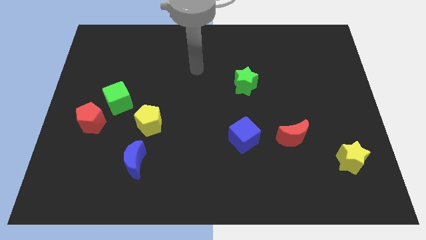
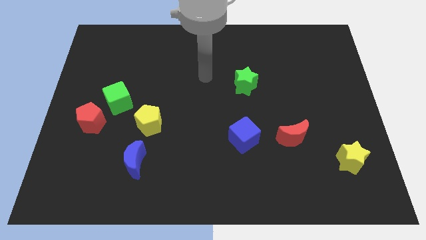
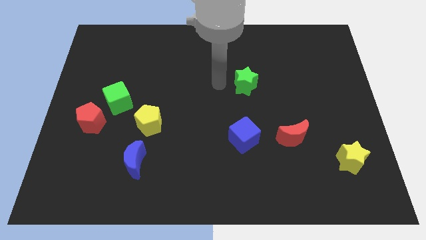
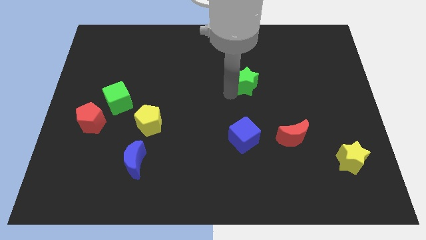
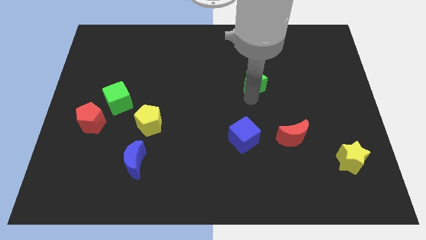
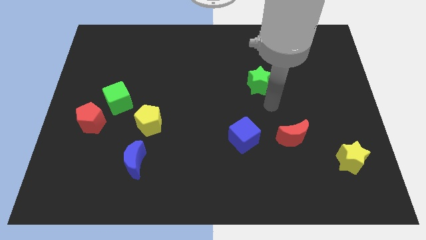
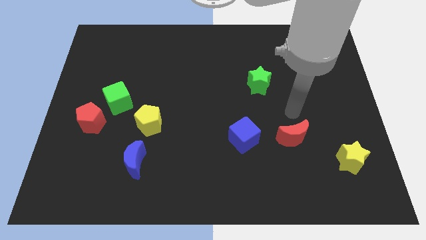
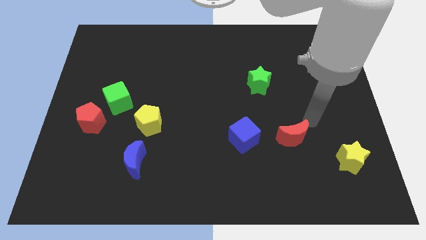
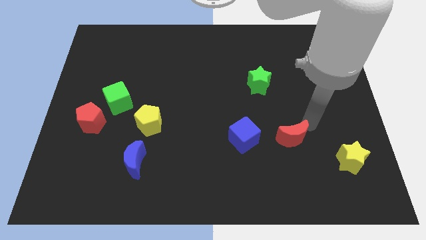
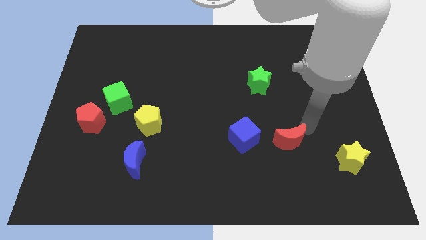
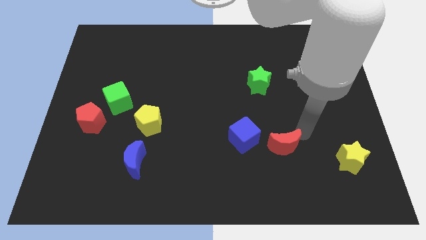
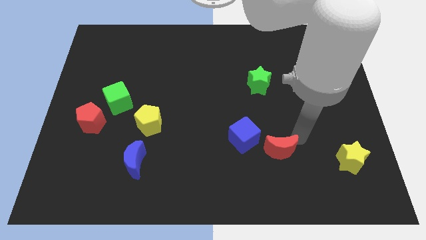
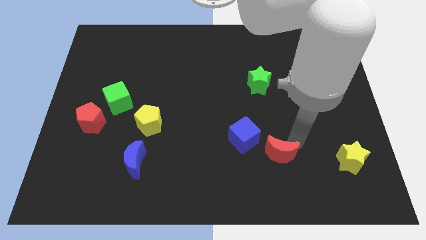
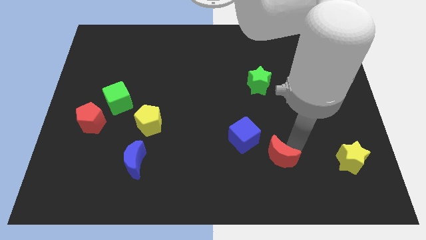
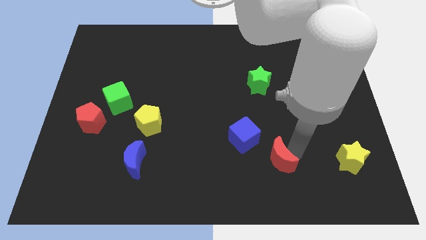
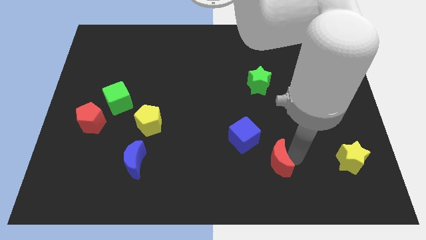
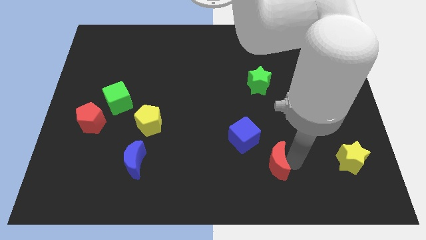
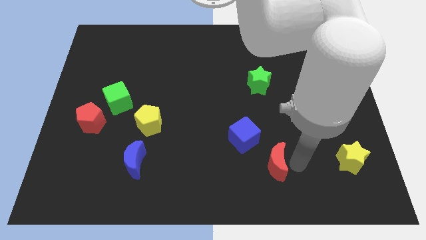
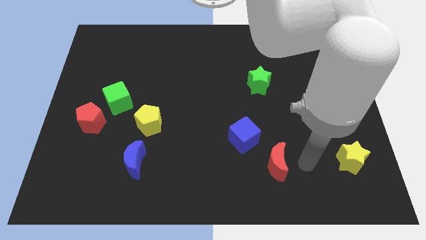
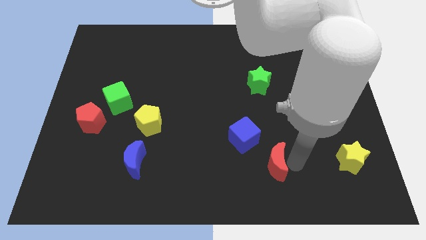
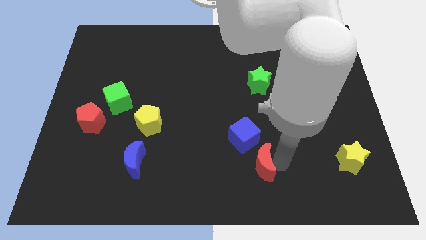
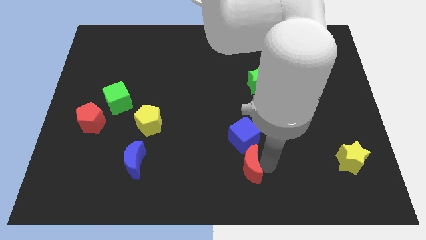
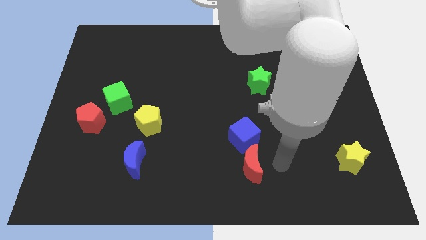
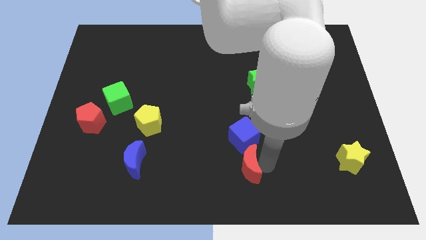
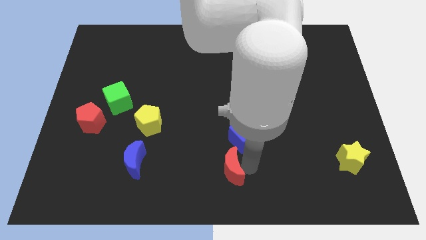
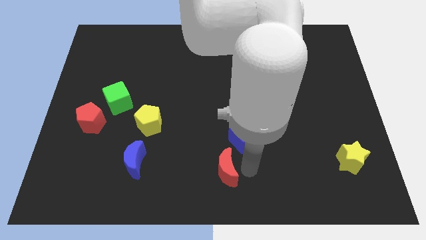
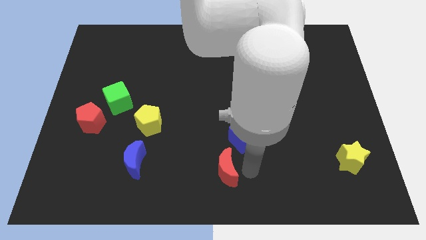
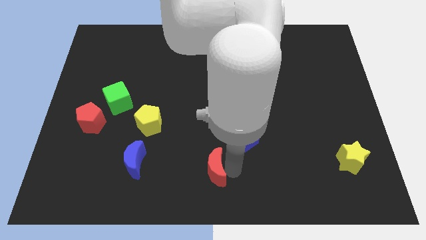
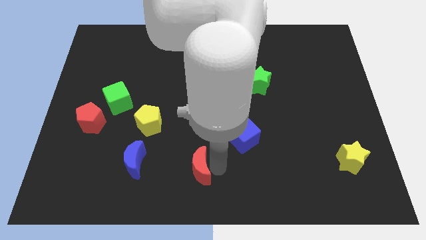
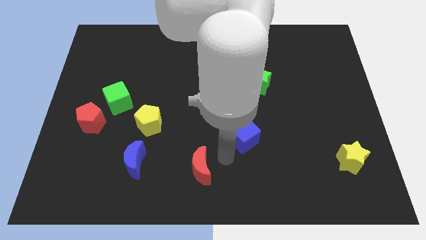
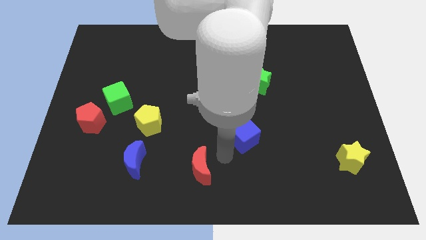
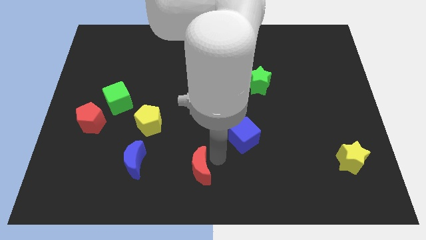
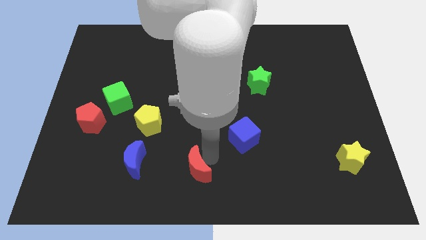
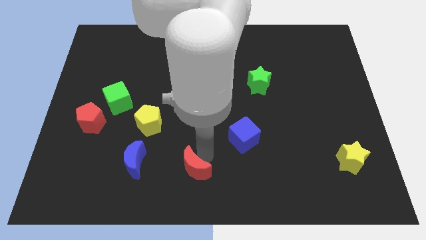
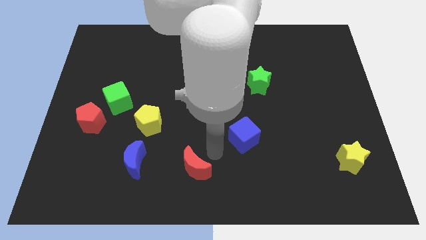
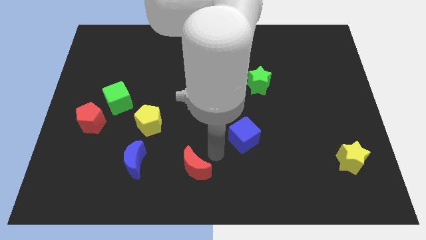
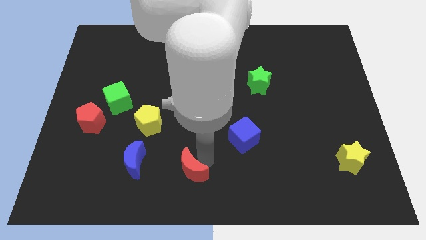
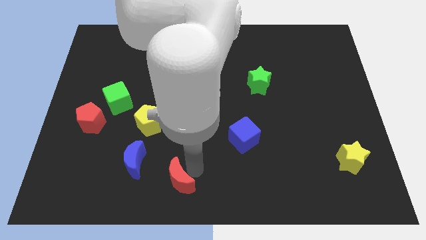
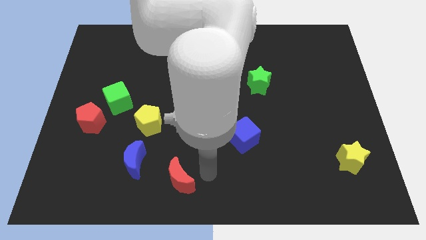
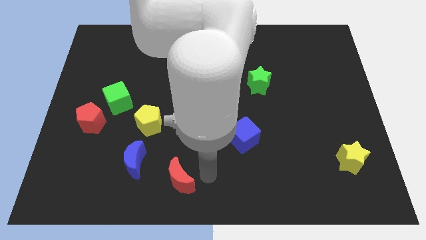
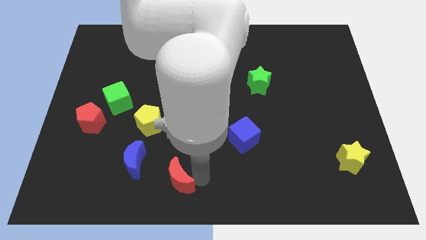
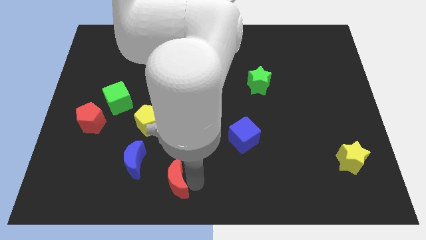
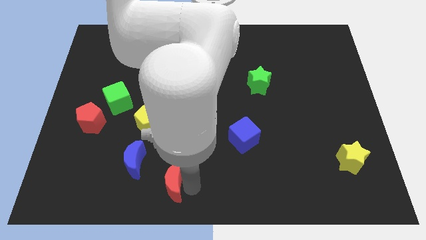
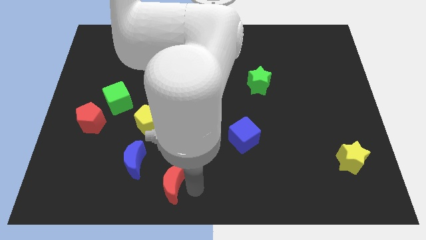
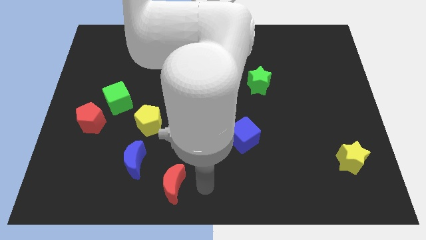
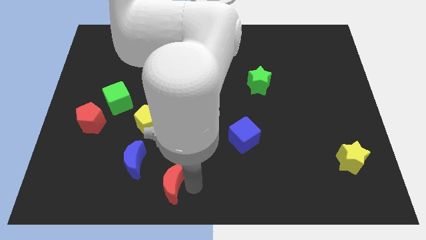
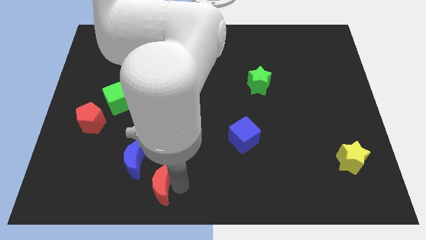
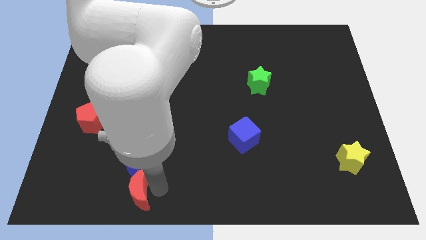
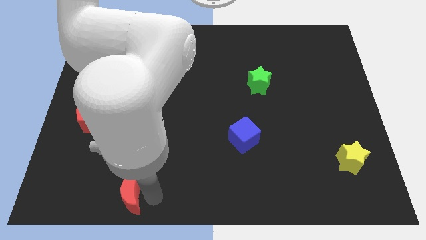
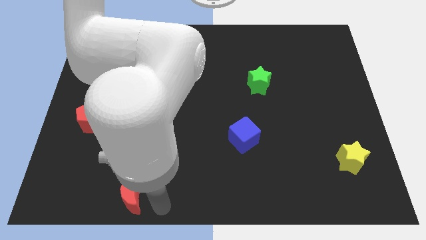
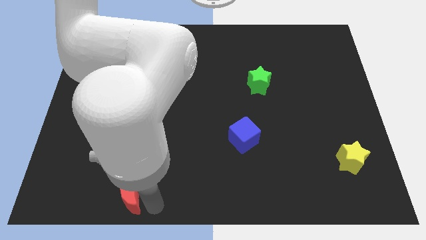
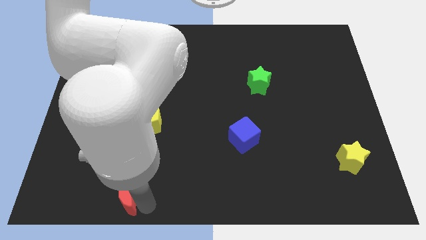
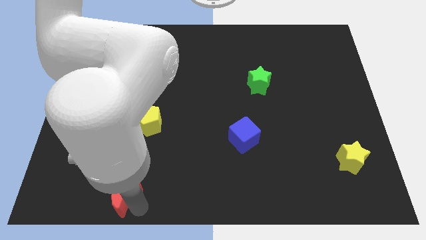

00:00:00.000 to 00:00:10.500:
slide the red moon to the bottom left side of the blue moon

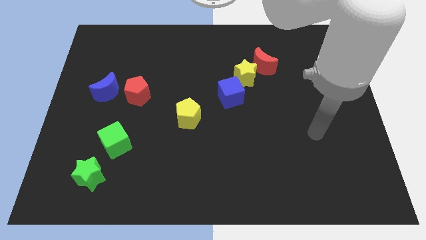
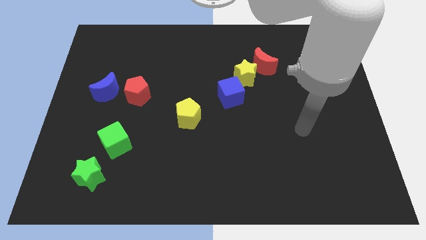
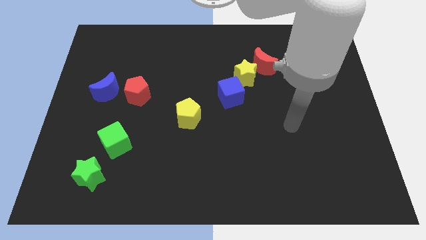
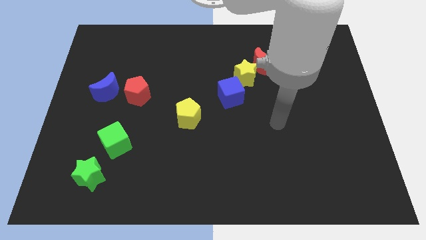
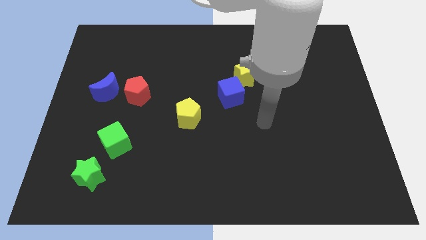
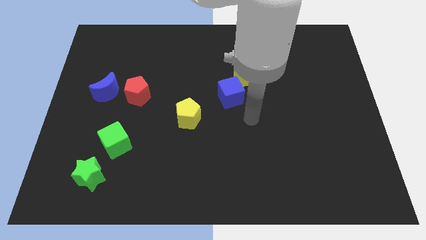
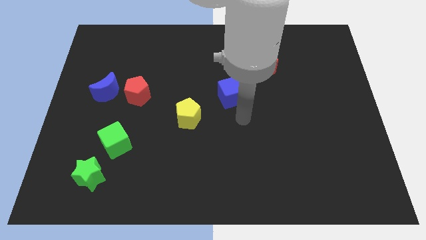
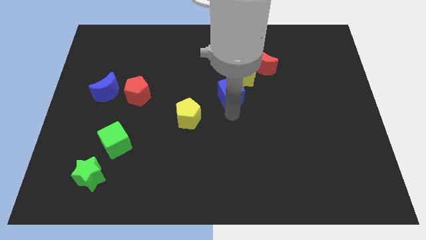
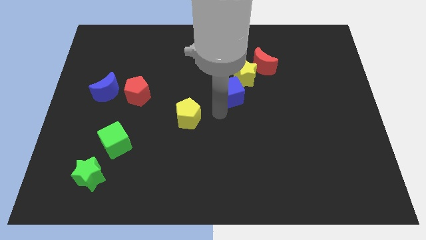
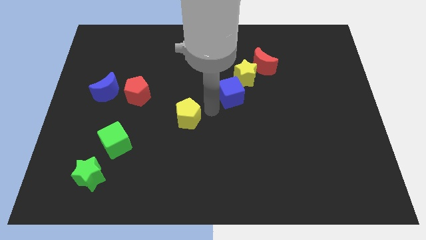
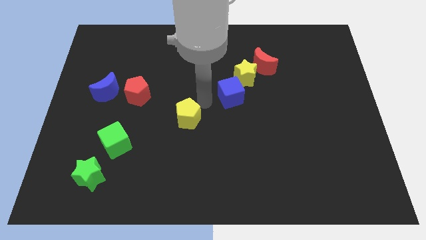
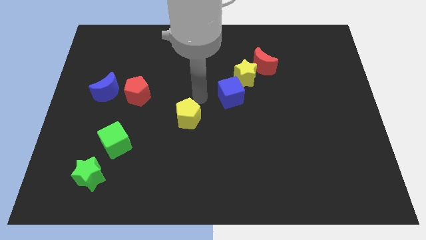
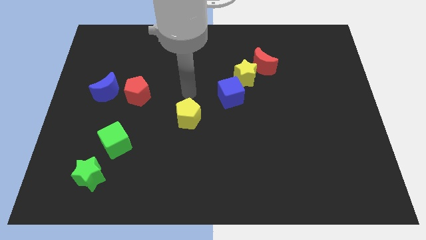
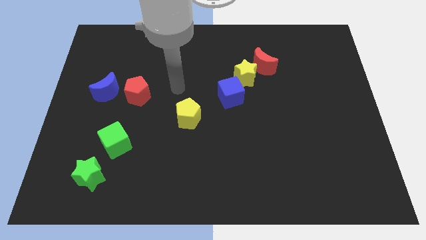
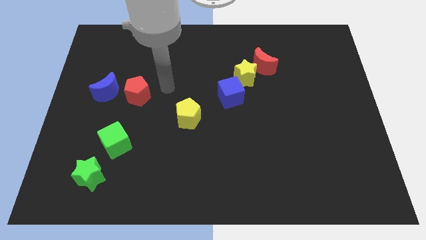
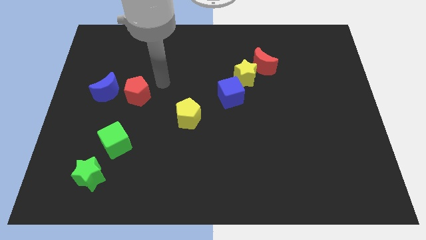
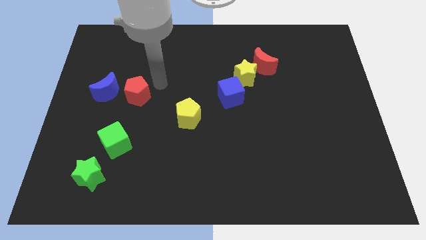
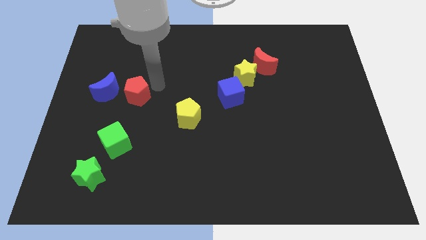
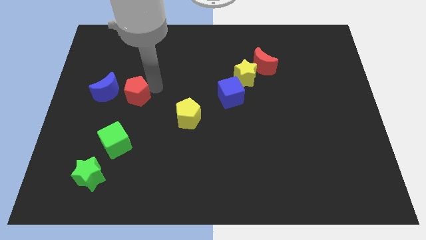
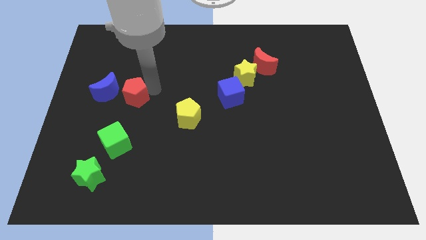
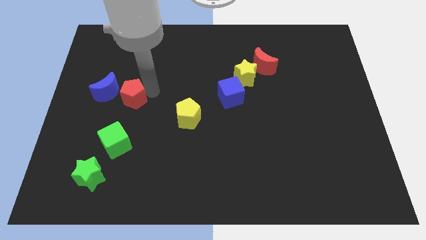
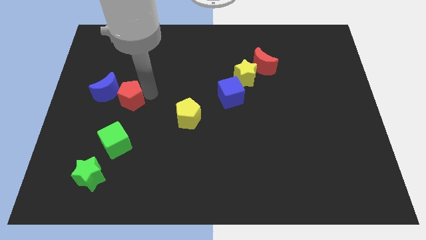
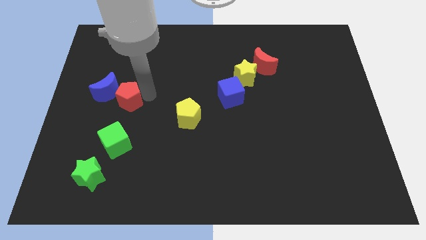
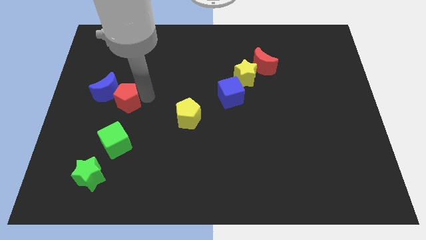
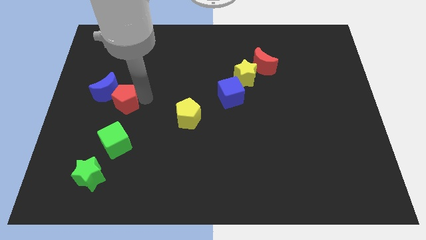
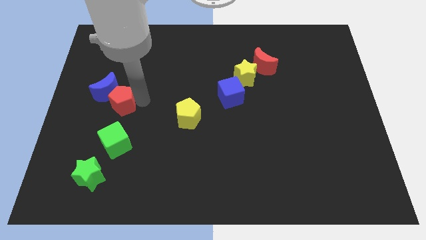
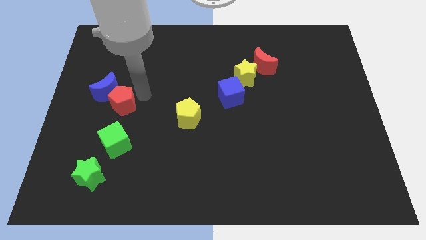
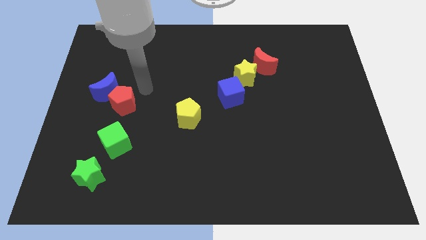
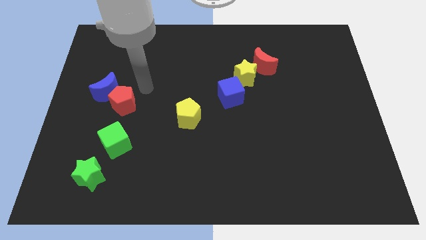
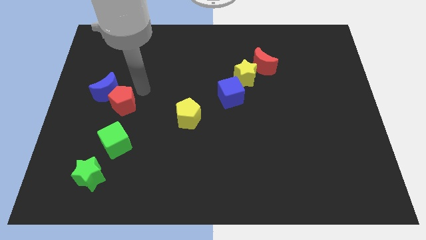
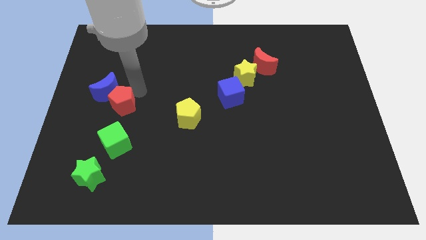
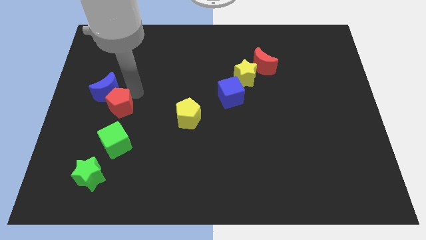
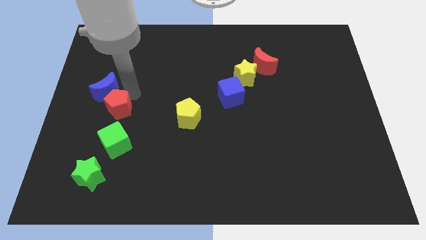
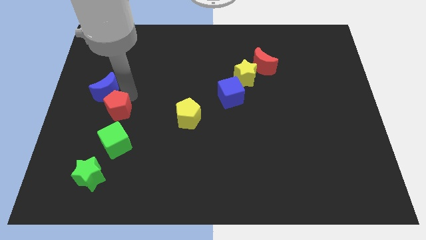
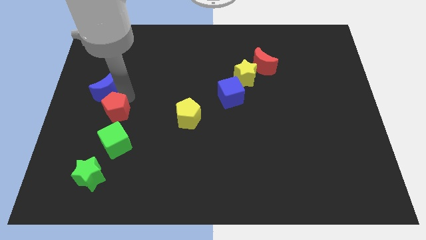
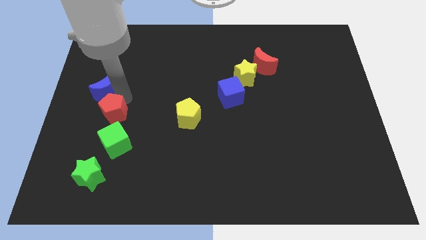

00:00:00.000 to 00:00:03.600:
move the red pentagon to the top left of the green cube
